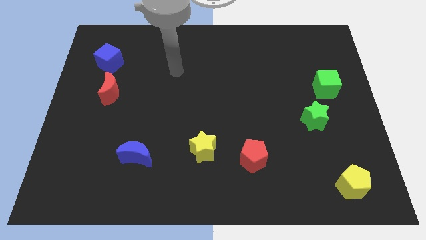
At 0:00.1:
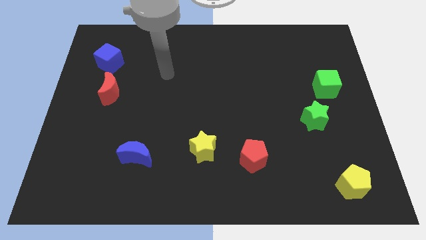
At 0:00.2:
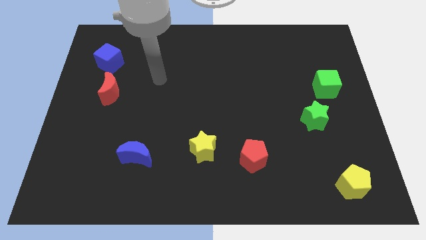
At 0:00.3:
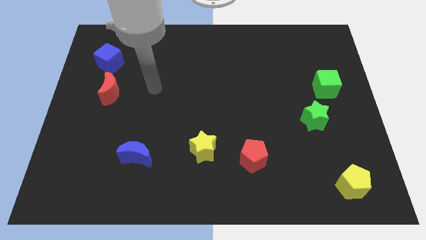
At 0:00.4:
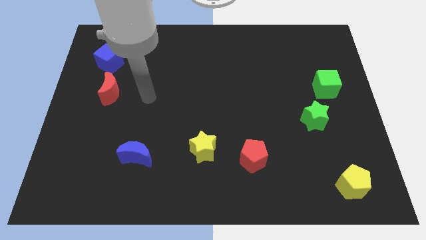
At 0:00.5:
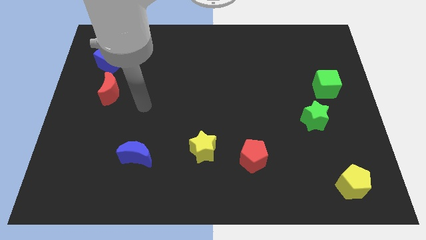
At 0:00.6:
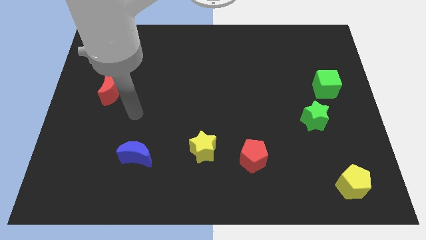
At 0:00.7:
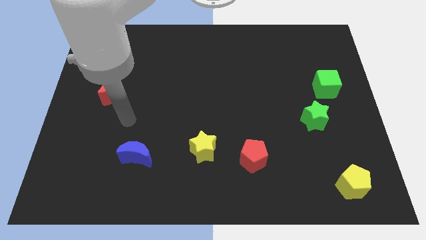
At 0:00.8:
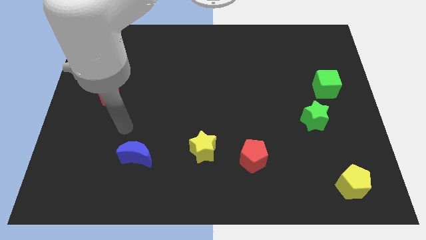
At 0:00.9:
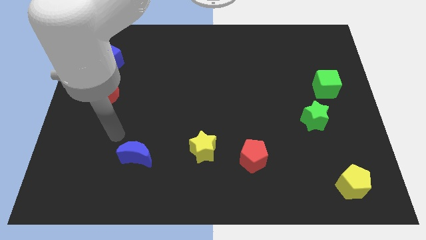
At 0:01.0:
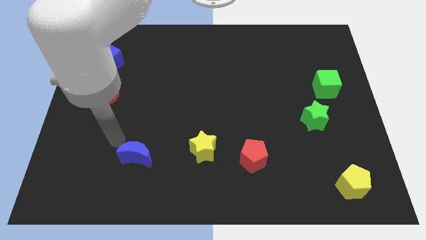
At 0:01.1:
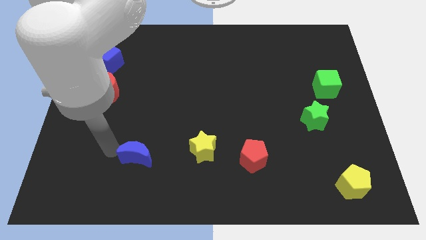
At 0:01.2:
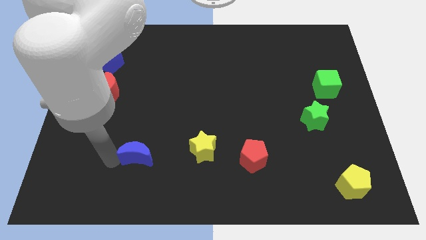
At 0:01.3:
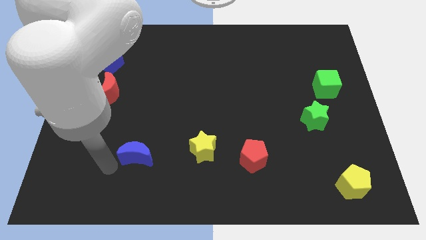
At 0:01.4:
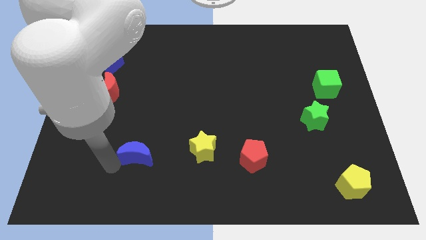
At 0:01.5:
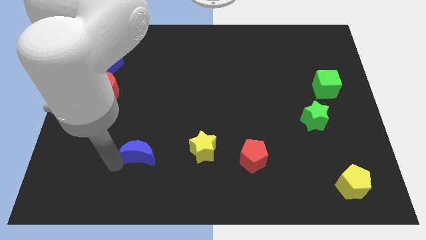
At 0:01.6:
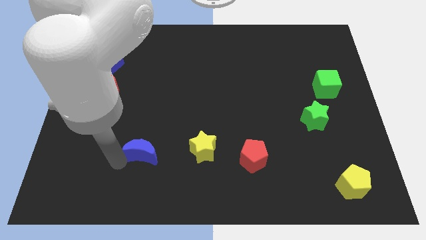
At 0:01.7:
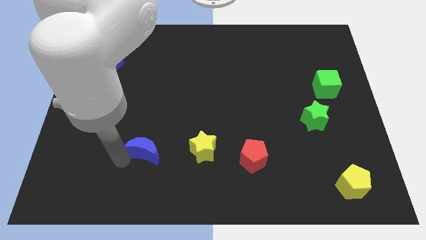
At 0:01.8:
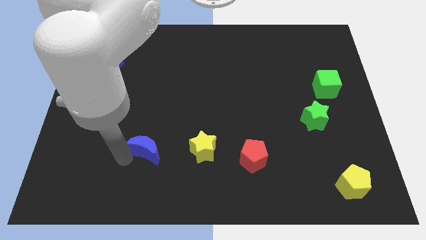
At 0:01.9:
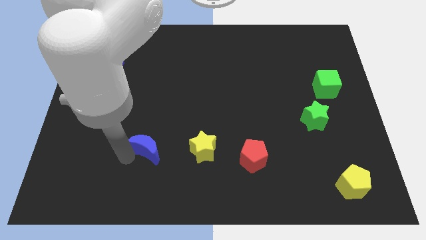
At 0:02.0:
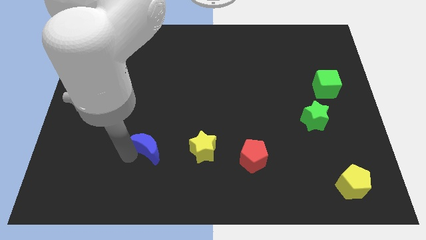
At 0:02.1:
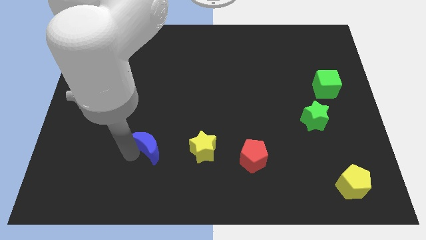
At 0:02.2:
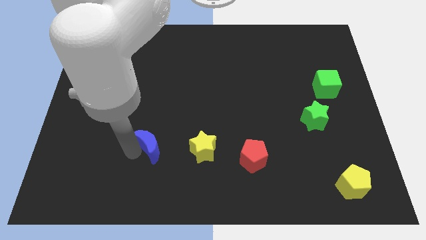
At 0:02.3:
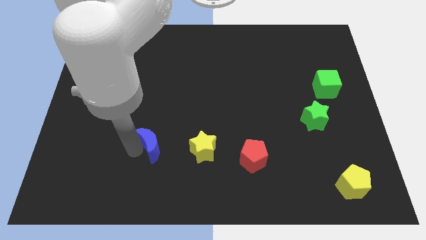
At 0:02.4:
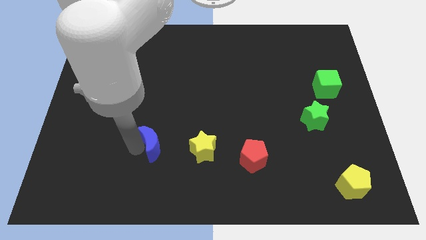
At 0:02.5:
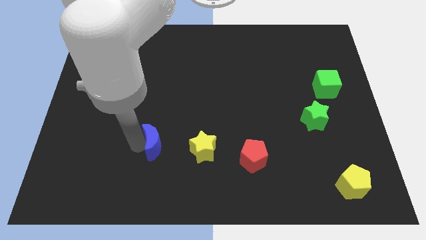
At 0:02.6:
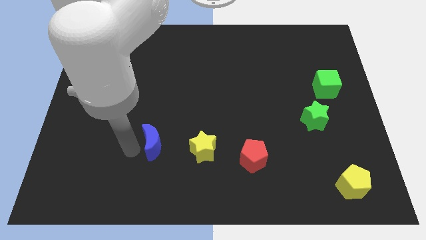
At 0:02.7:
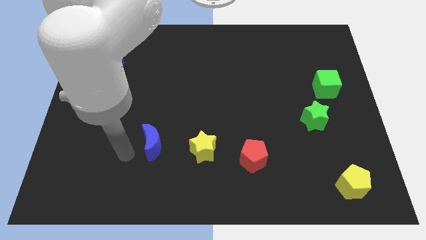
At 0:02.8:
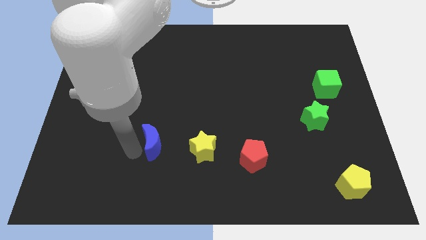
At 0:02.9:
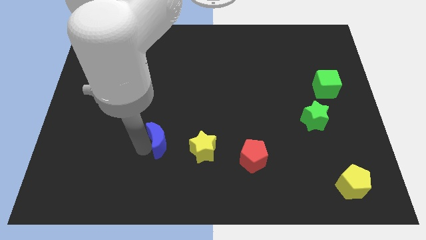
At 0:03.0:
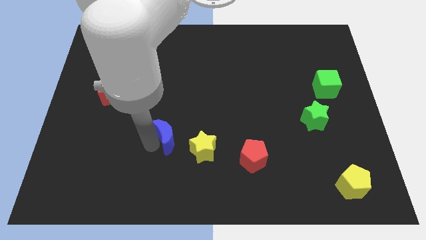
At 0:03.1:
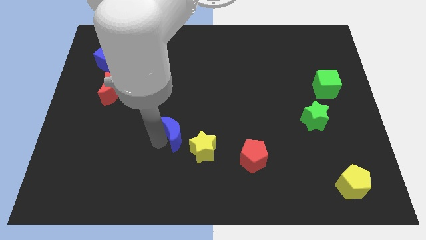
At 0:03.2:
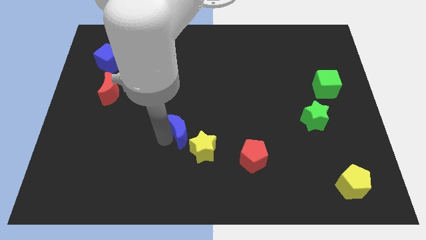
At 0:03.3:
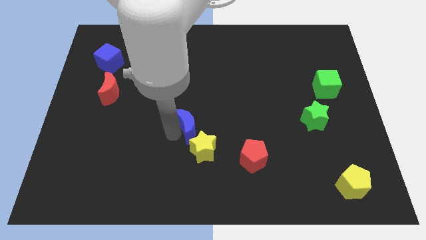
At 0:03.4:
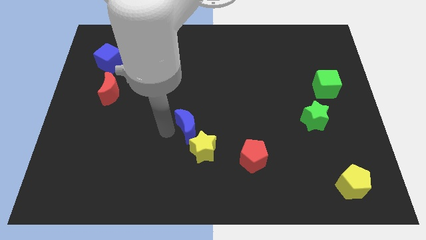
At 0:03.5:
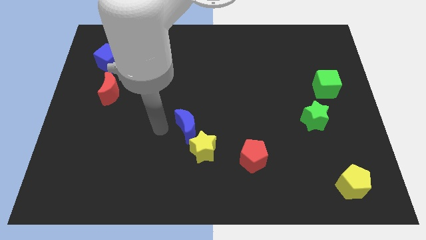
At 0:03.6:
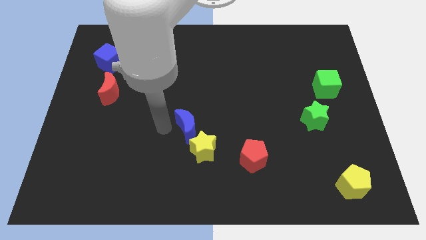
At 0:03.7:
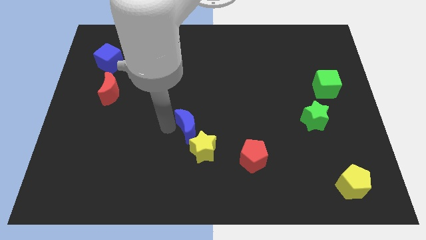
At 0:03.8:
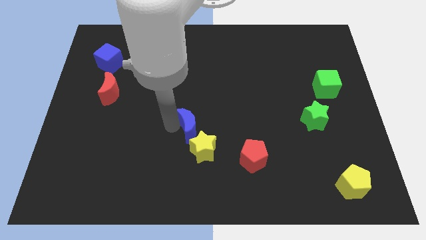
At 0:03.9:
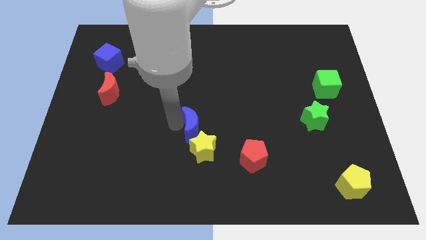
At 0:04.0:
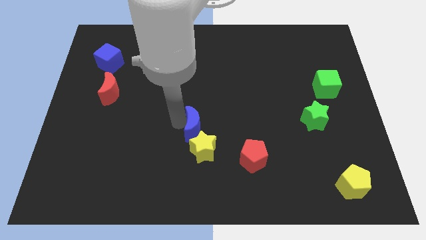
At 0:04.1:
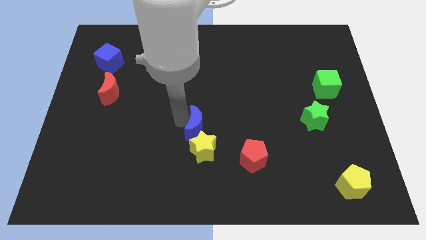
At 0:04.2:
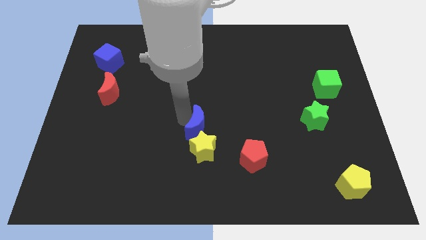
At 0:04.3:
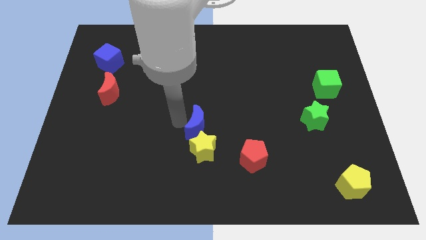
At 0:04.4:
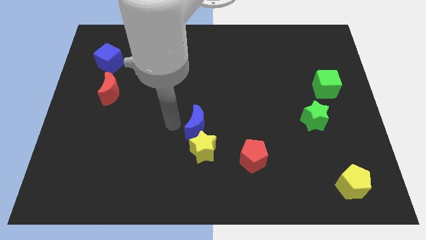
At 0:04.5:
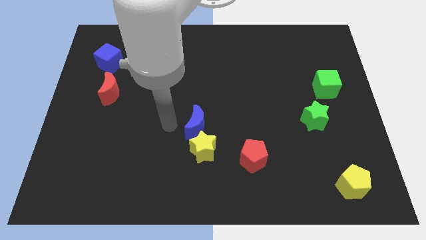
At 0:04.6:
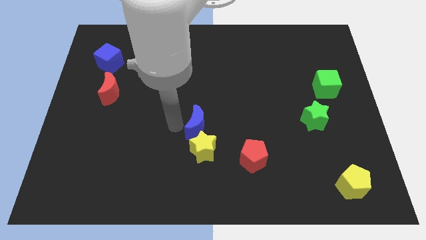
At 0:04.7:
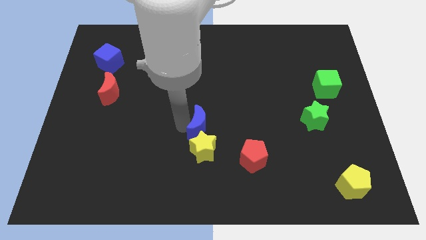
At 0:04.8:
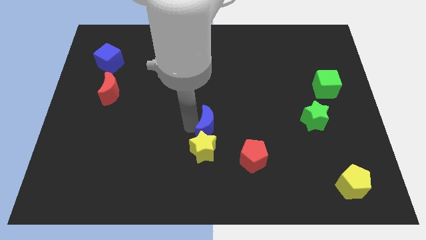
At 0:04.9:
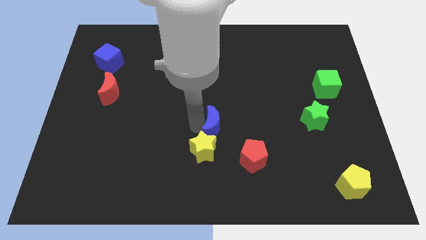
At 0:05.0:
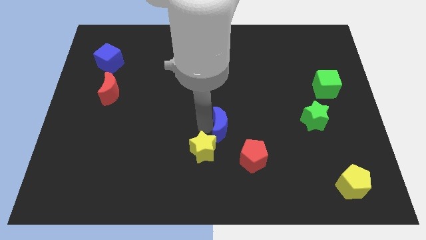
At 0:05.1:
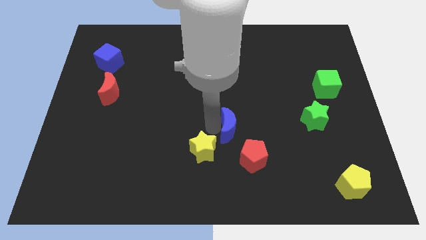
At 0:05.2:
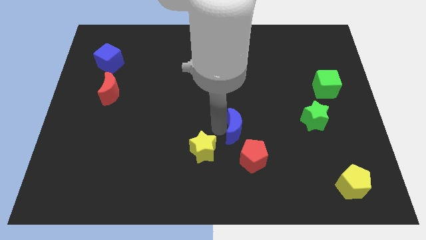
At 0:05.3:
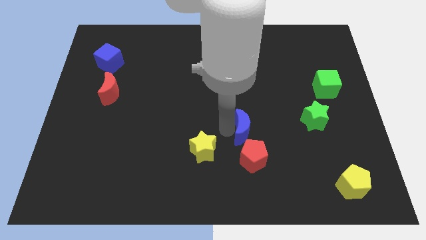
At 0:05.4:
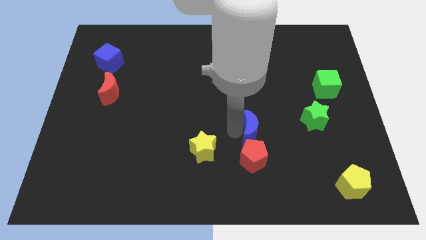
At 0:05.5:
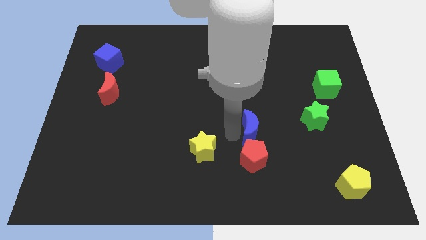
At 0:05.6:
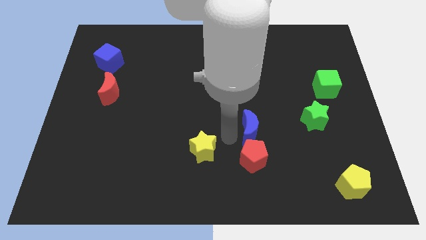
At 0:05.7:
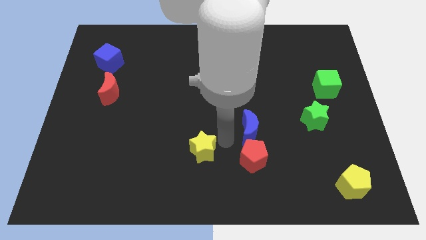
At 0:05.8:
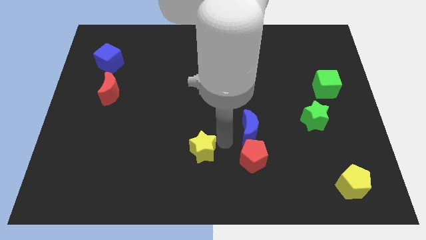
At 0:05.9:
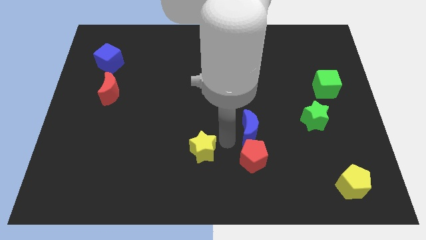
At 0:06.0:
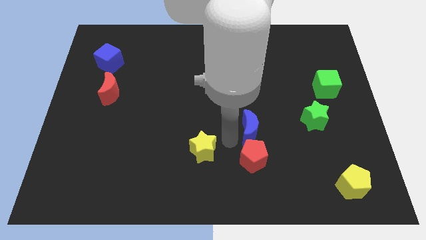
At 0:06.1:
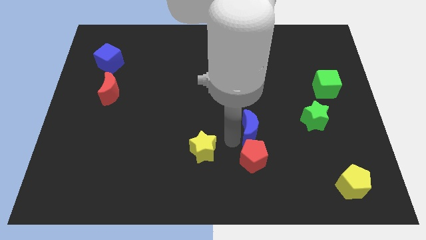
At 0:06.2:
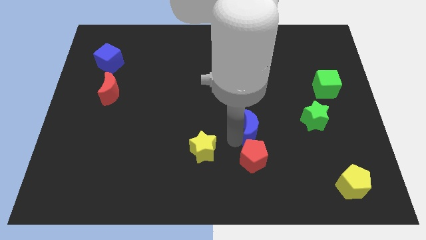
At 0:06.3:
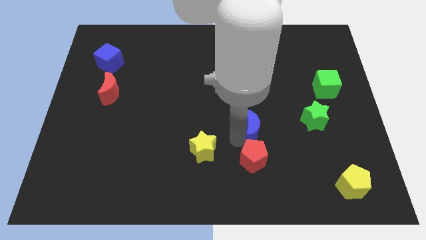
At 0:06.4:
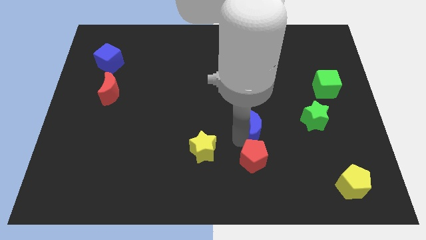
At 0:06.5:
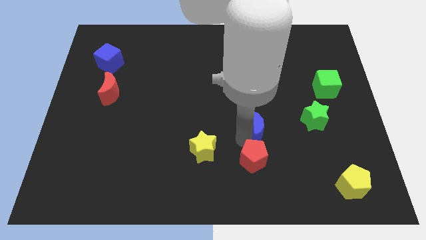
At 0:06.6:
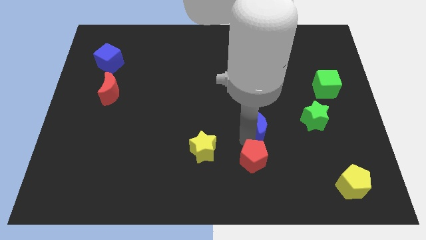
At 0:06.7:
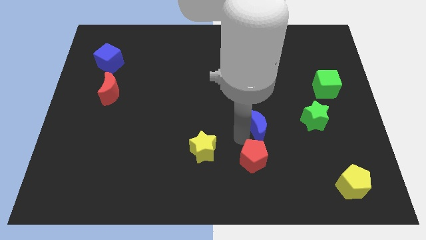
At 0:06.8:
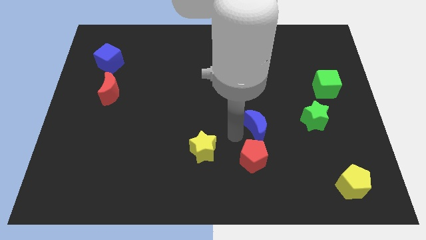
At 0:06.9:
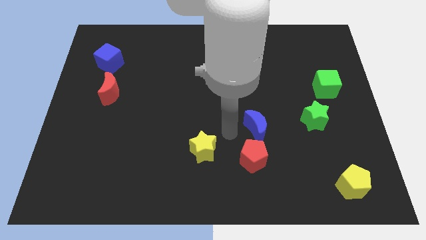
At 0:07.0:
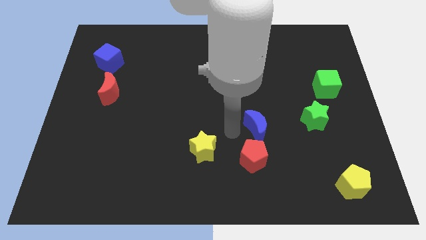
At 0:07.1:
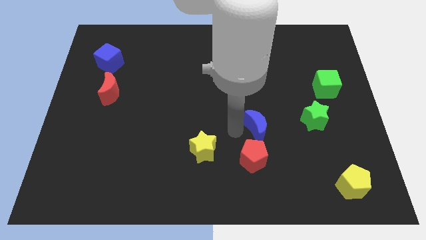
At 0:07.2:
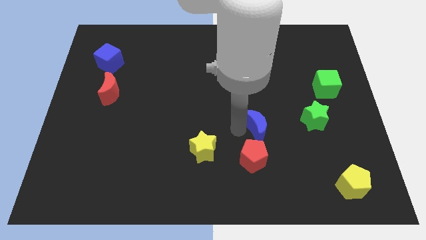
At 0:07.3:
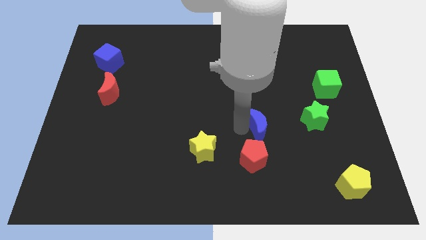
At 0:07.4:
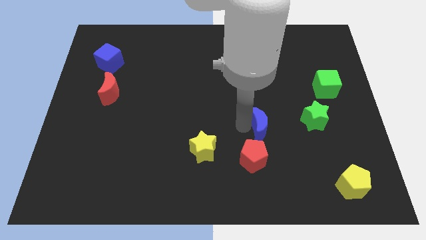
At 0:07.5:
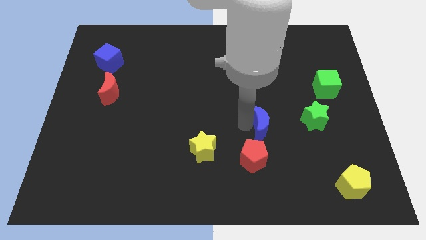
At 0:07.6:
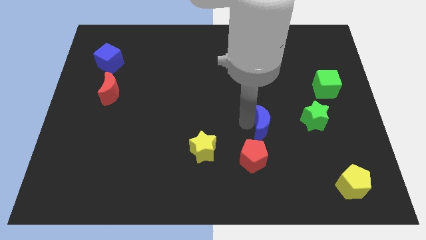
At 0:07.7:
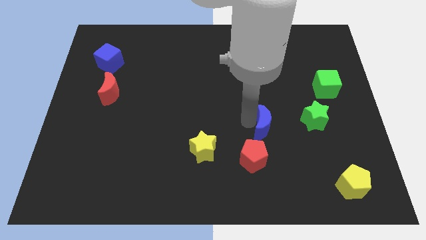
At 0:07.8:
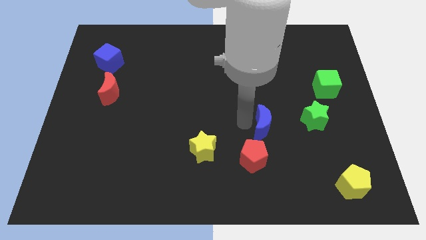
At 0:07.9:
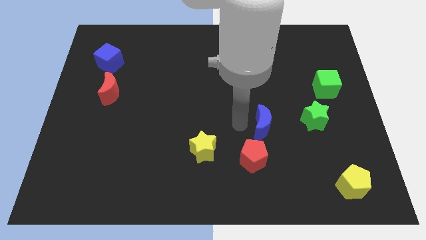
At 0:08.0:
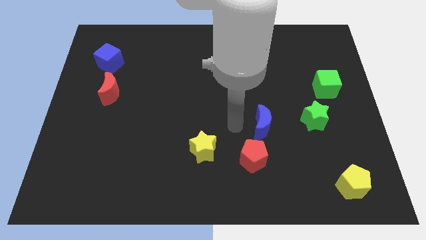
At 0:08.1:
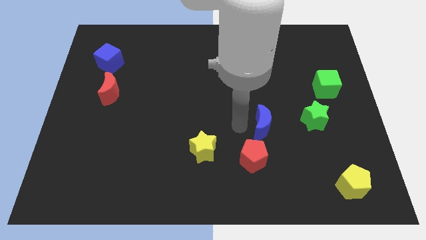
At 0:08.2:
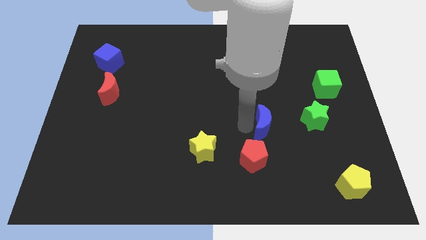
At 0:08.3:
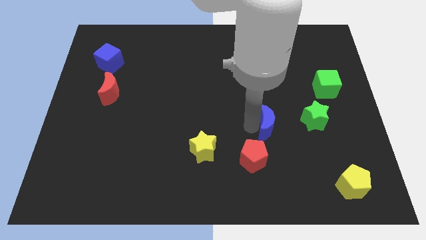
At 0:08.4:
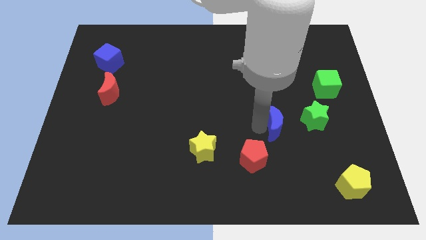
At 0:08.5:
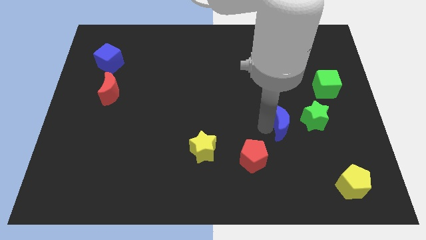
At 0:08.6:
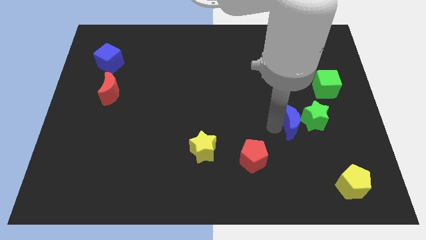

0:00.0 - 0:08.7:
move the blue moon close to the green star
